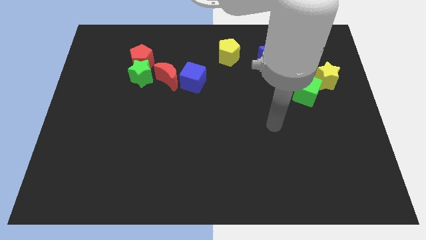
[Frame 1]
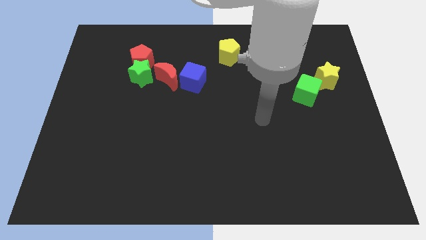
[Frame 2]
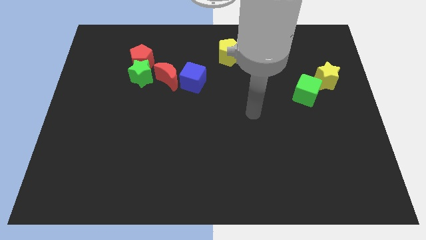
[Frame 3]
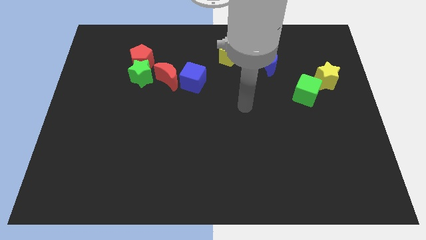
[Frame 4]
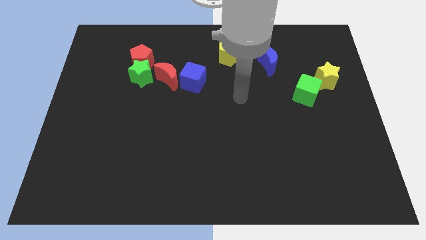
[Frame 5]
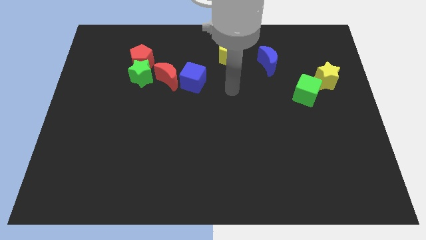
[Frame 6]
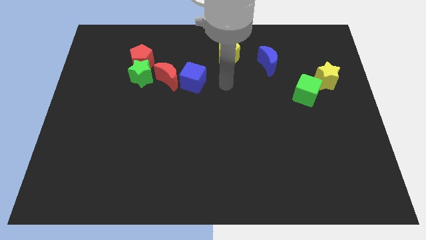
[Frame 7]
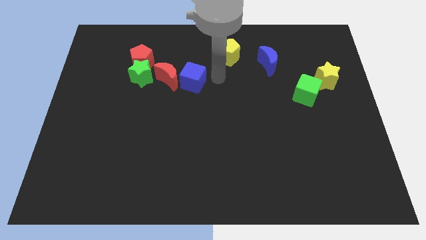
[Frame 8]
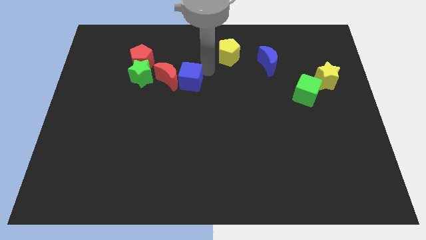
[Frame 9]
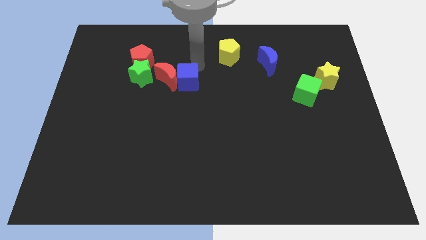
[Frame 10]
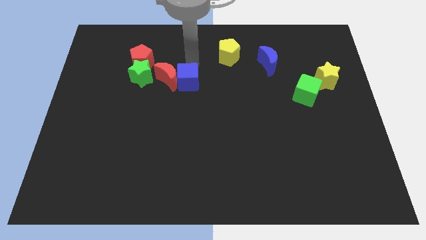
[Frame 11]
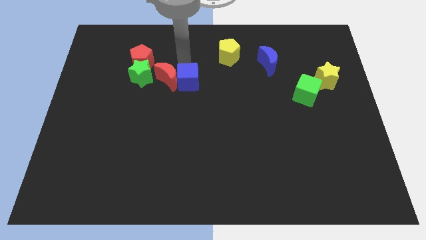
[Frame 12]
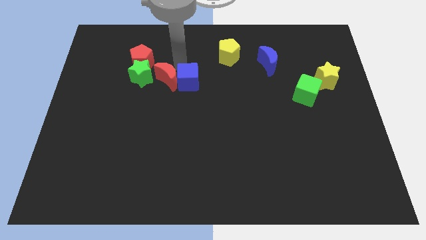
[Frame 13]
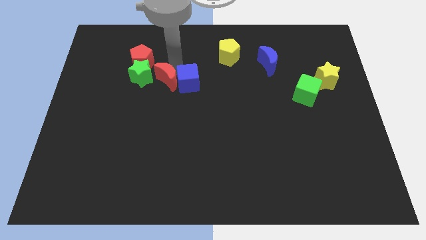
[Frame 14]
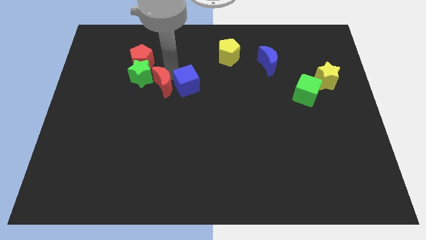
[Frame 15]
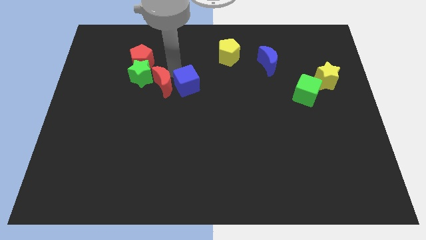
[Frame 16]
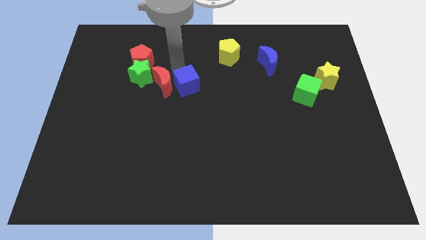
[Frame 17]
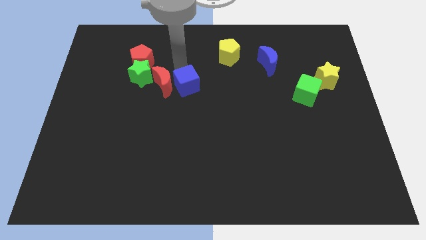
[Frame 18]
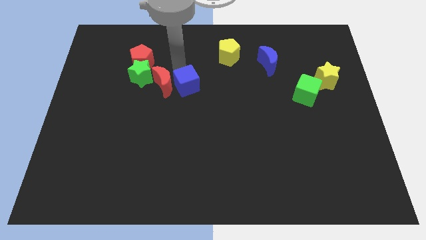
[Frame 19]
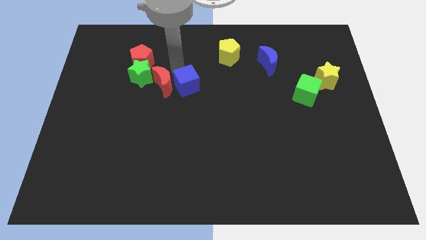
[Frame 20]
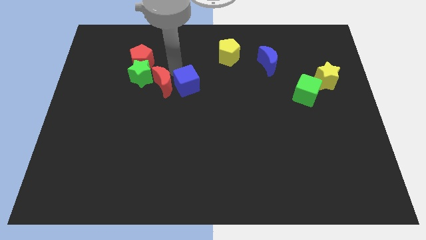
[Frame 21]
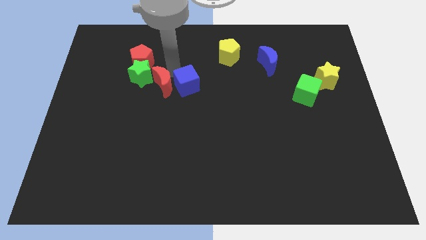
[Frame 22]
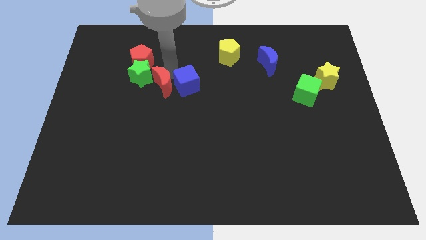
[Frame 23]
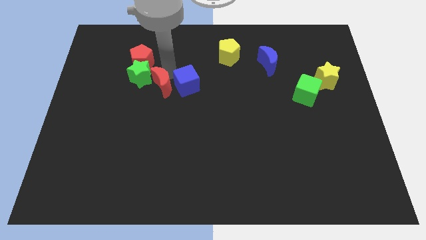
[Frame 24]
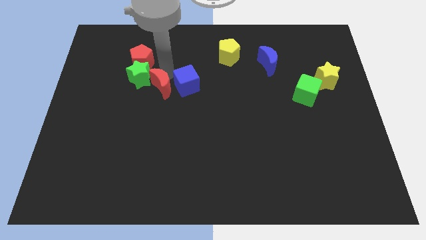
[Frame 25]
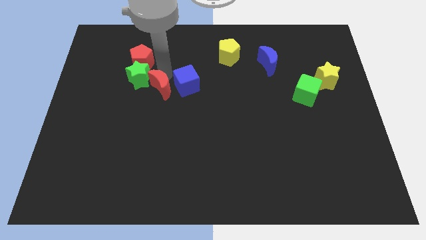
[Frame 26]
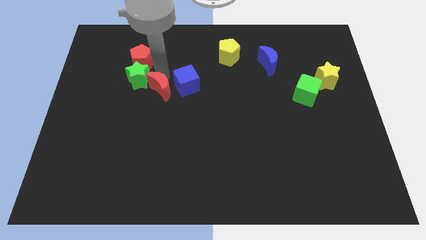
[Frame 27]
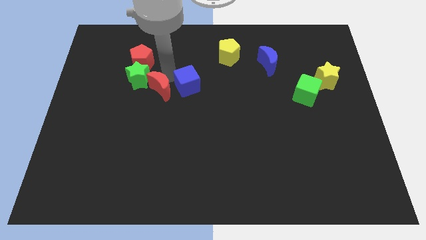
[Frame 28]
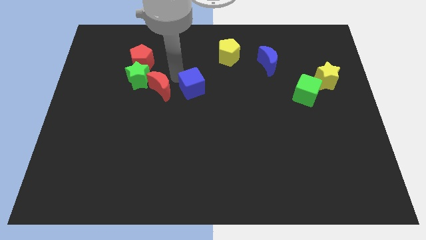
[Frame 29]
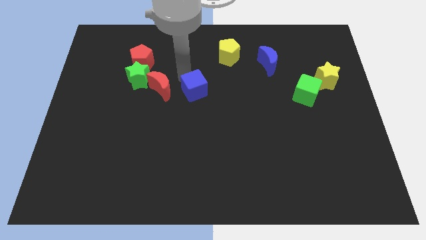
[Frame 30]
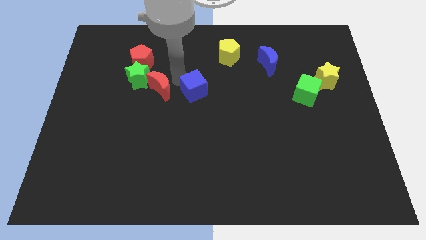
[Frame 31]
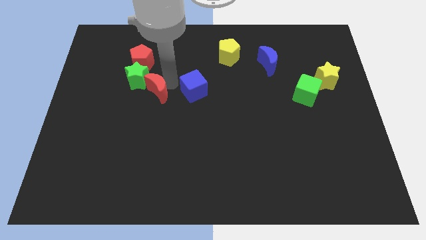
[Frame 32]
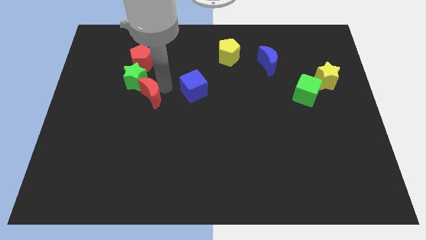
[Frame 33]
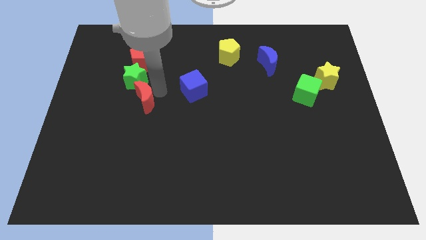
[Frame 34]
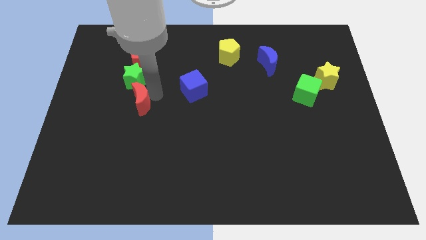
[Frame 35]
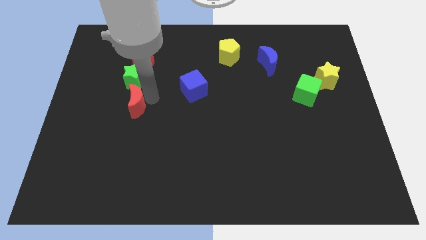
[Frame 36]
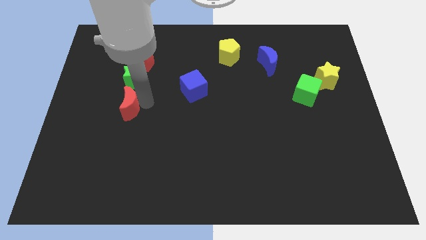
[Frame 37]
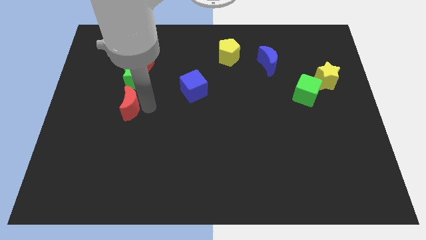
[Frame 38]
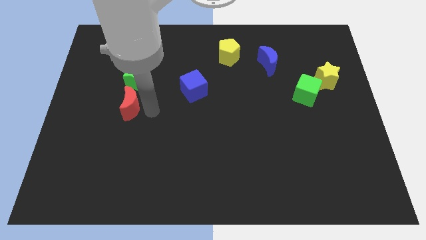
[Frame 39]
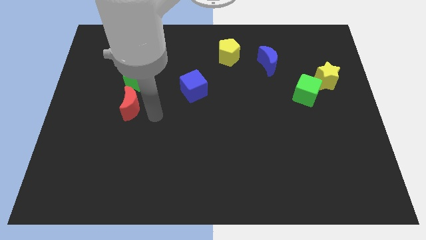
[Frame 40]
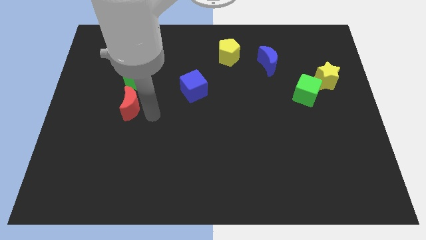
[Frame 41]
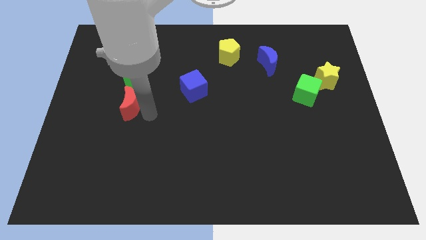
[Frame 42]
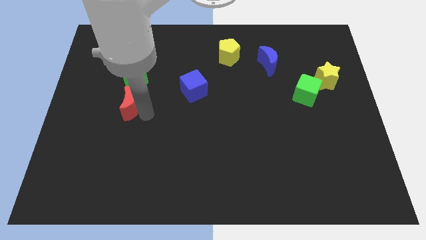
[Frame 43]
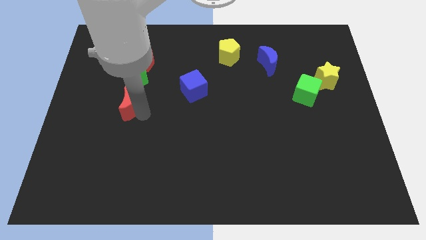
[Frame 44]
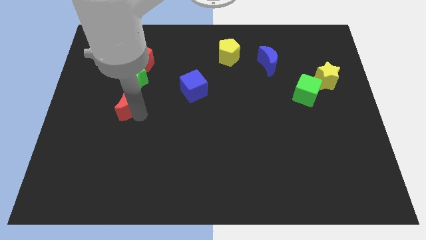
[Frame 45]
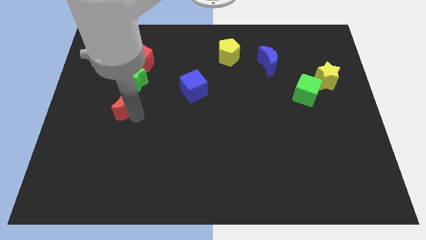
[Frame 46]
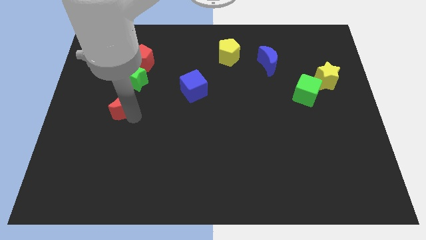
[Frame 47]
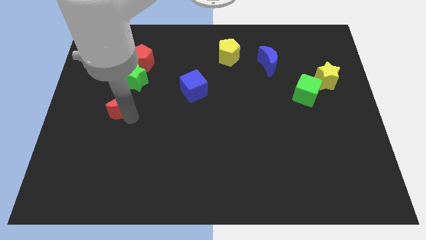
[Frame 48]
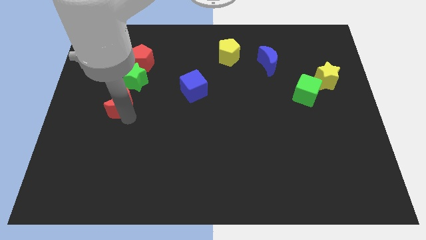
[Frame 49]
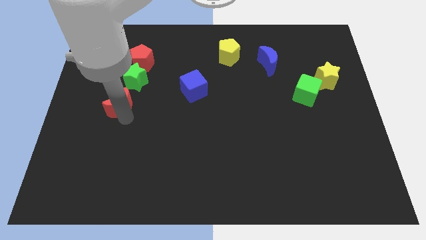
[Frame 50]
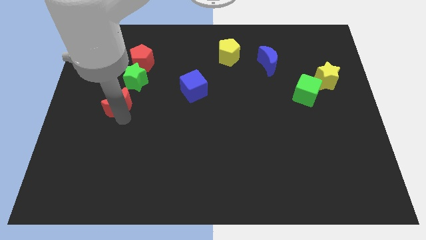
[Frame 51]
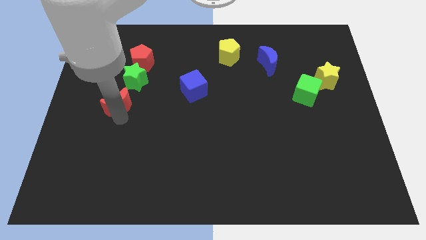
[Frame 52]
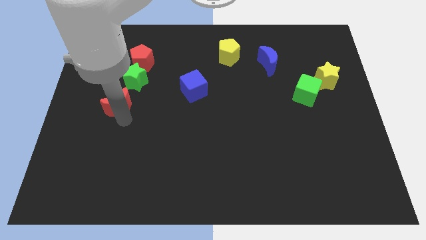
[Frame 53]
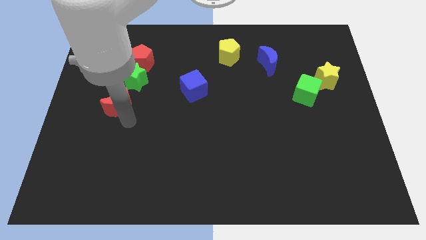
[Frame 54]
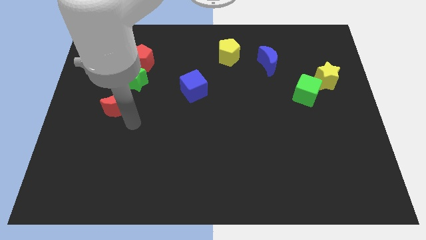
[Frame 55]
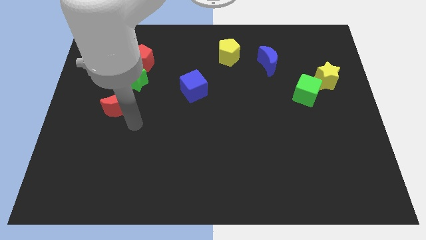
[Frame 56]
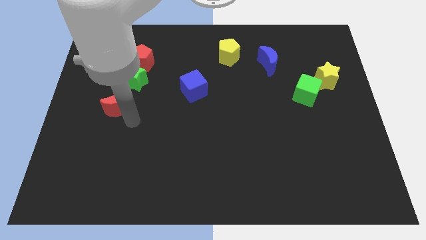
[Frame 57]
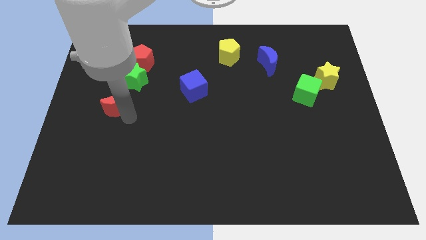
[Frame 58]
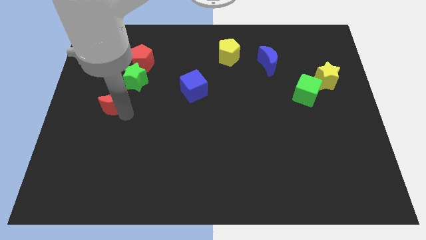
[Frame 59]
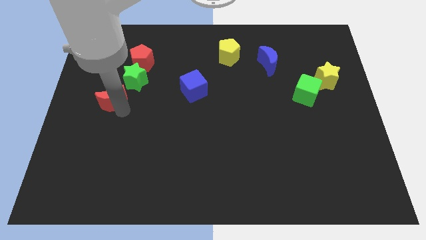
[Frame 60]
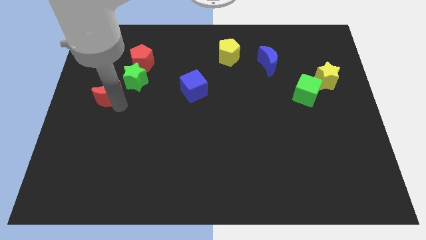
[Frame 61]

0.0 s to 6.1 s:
push the red moon to the left side

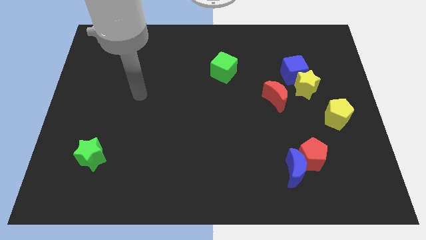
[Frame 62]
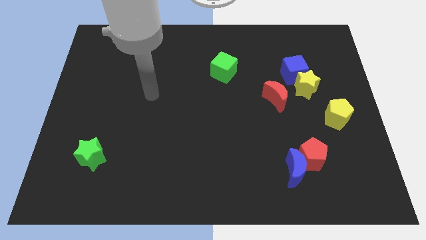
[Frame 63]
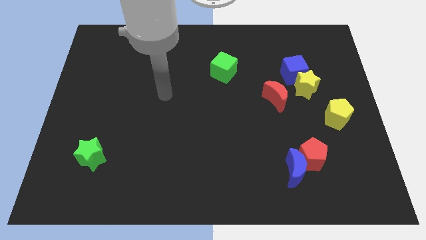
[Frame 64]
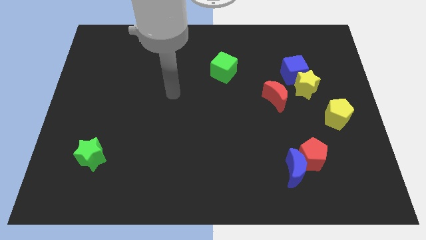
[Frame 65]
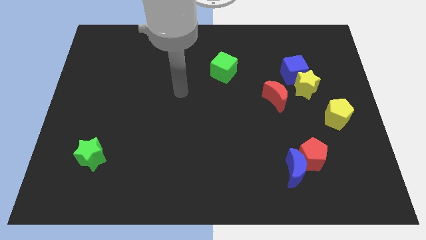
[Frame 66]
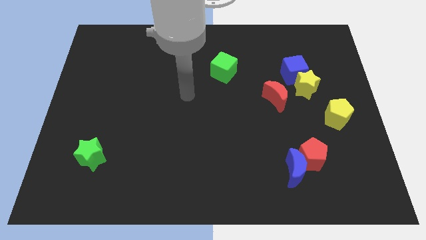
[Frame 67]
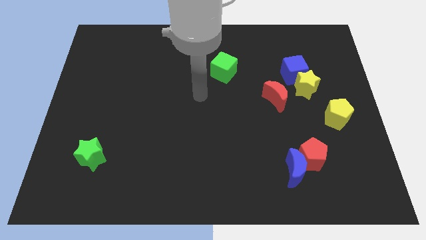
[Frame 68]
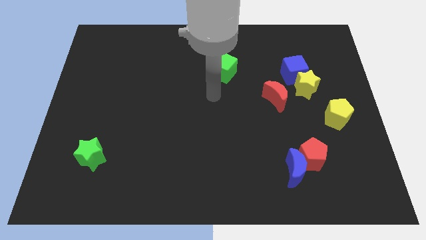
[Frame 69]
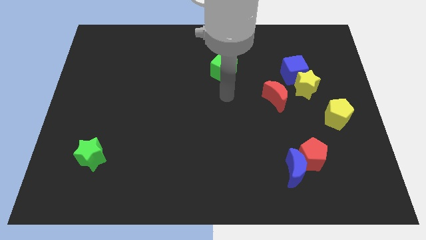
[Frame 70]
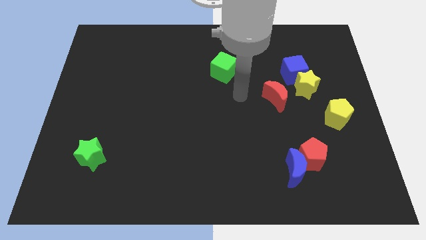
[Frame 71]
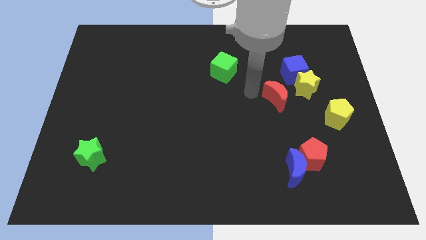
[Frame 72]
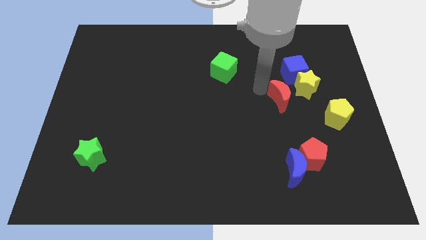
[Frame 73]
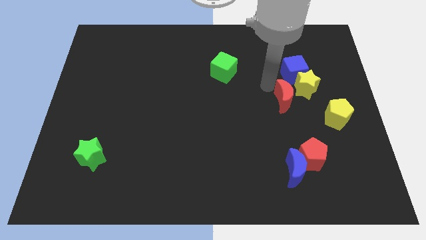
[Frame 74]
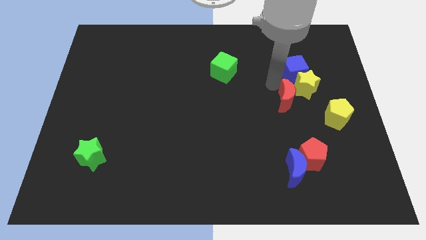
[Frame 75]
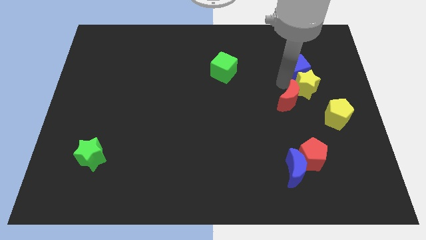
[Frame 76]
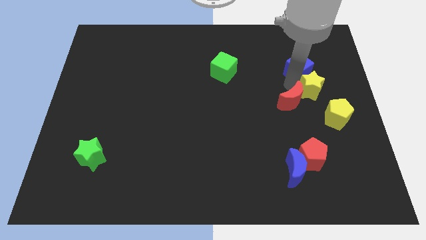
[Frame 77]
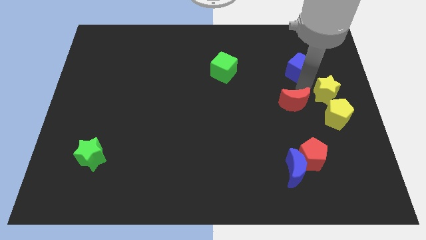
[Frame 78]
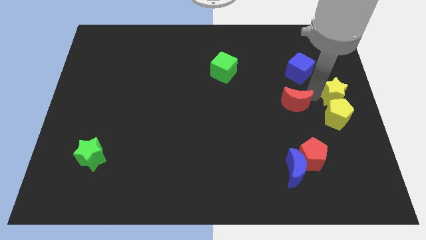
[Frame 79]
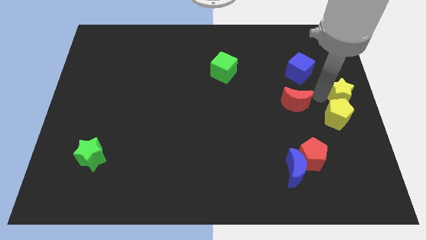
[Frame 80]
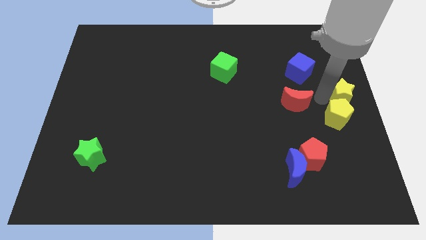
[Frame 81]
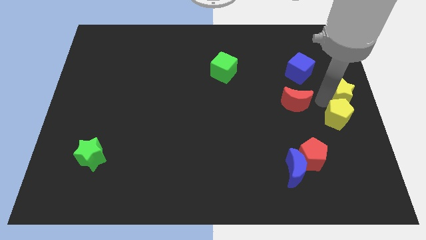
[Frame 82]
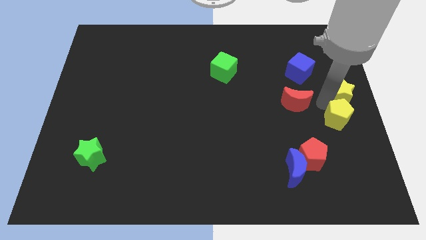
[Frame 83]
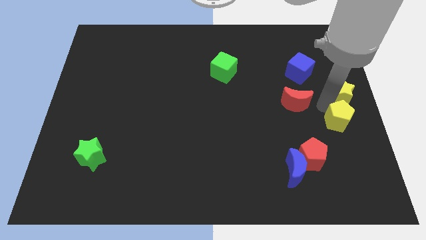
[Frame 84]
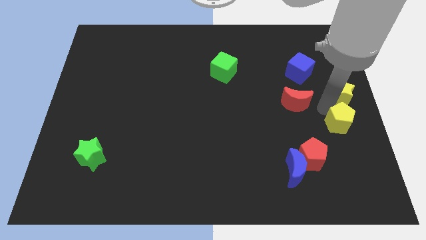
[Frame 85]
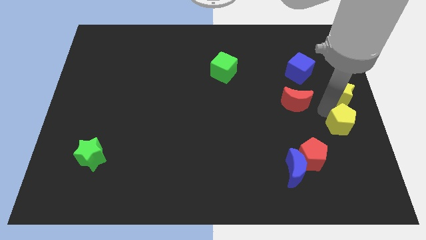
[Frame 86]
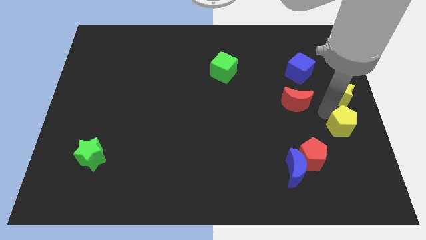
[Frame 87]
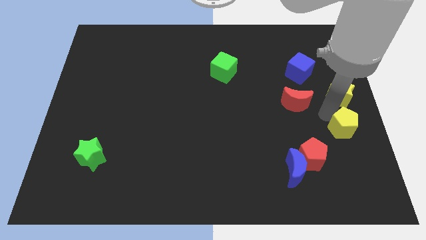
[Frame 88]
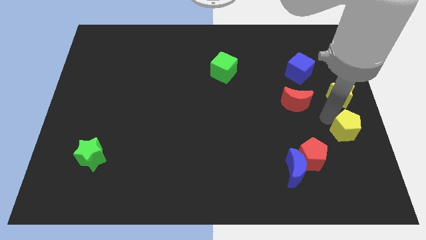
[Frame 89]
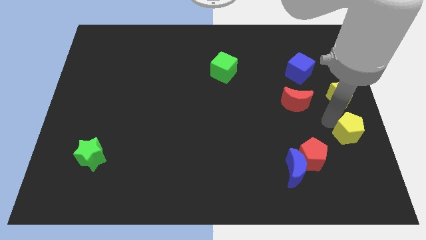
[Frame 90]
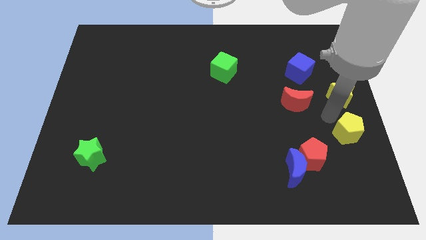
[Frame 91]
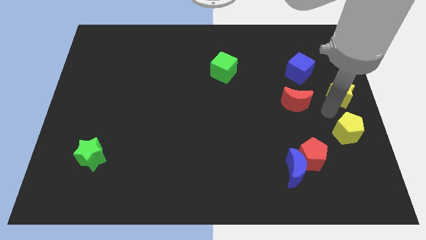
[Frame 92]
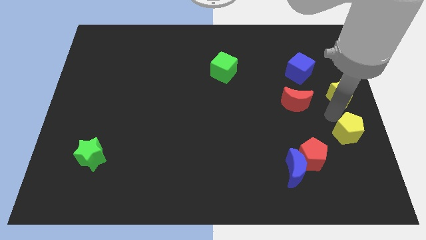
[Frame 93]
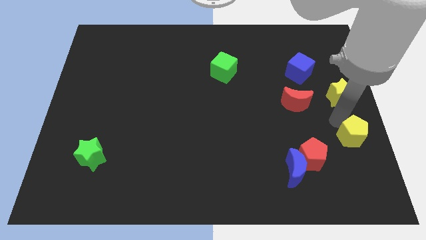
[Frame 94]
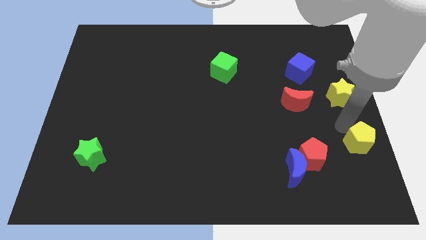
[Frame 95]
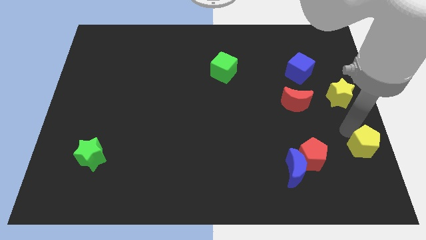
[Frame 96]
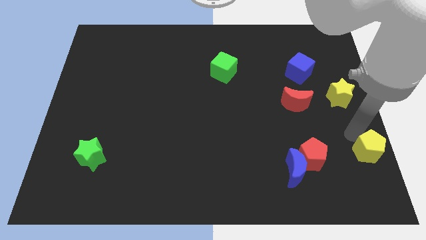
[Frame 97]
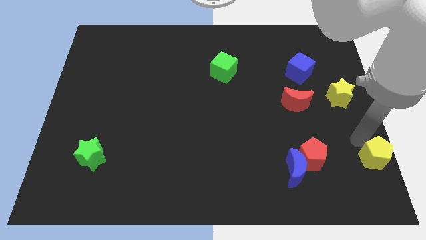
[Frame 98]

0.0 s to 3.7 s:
move the yellow pentagon to the bottom right
